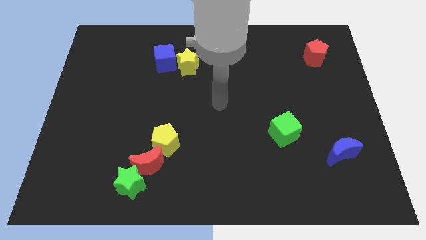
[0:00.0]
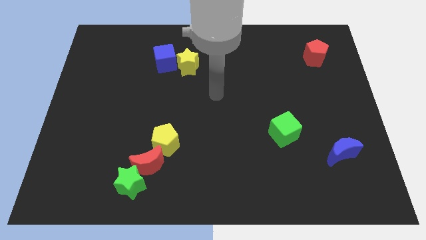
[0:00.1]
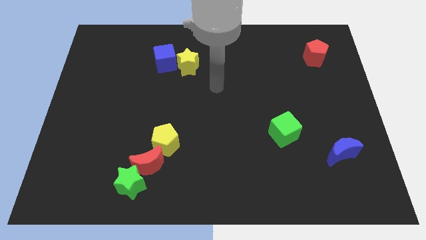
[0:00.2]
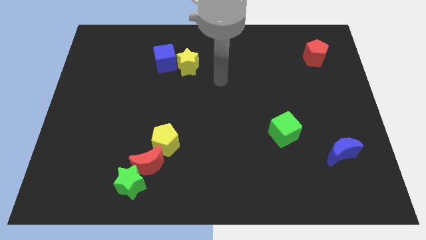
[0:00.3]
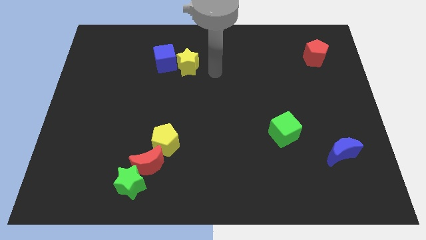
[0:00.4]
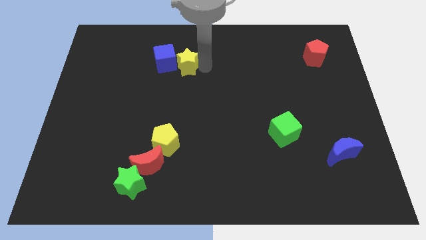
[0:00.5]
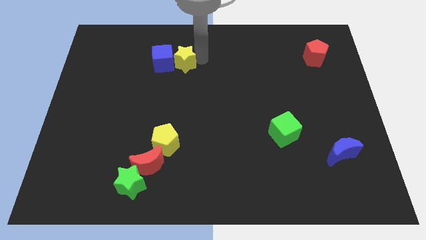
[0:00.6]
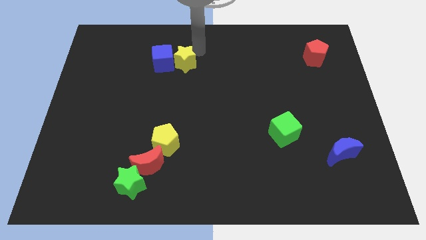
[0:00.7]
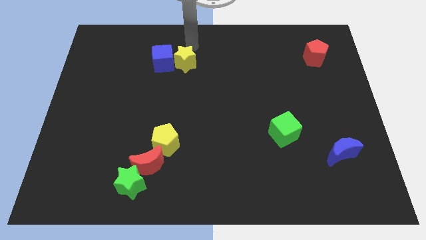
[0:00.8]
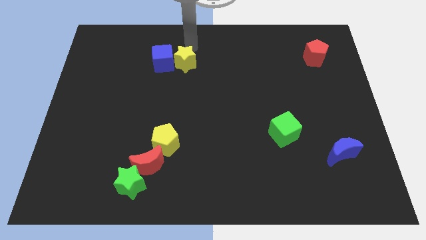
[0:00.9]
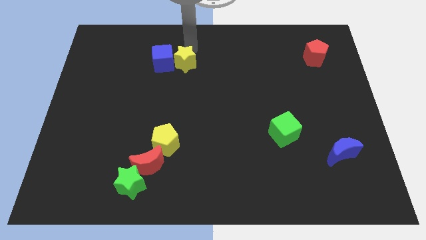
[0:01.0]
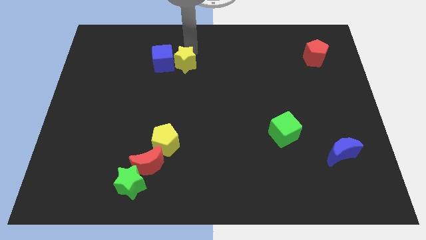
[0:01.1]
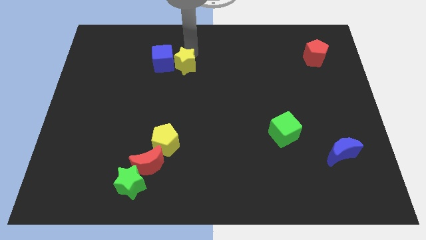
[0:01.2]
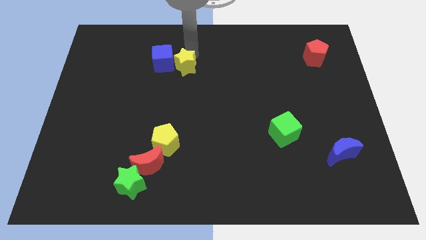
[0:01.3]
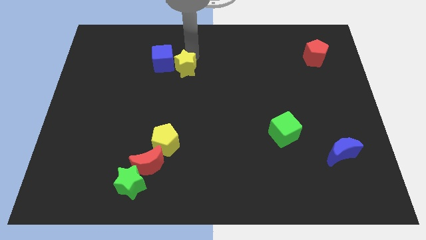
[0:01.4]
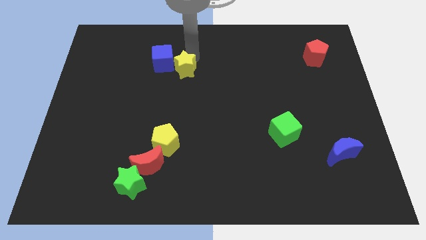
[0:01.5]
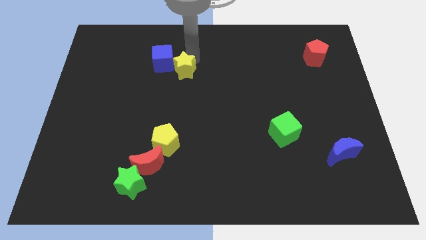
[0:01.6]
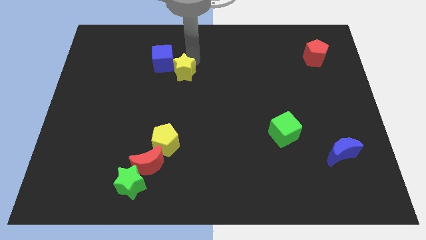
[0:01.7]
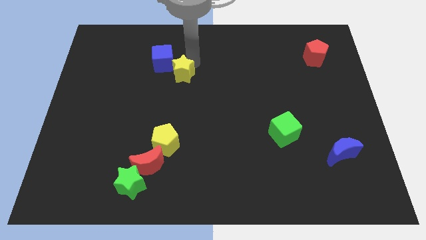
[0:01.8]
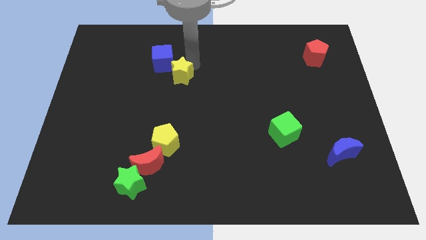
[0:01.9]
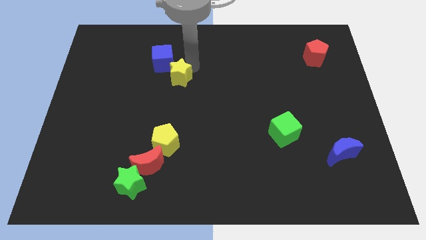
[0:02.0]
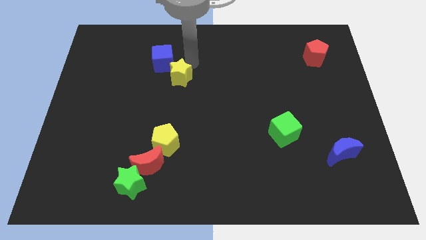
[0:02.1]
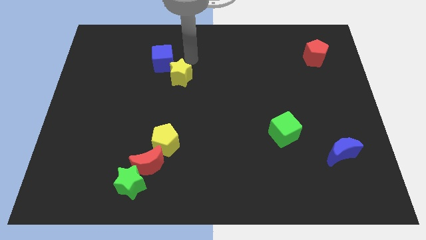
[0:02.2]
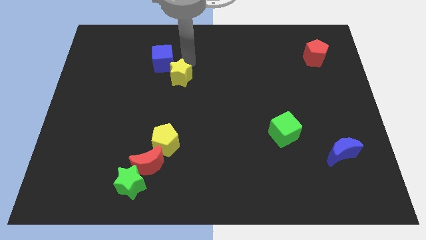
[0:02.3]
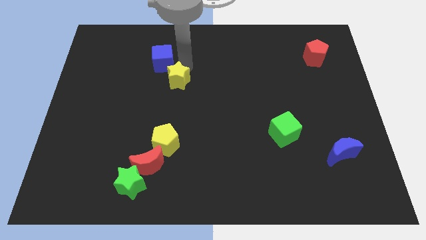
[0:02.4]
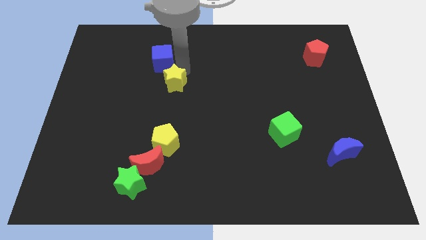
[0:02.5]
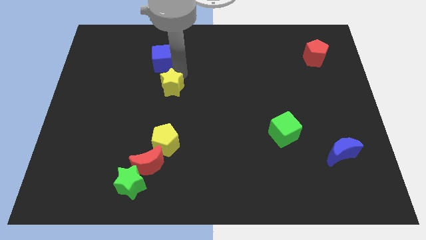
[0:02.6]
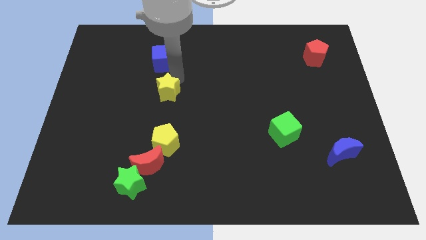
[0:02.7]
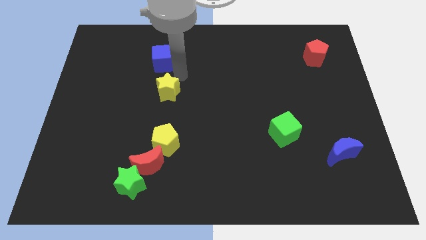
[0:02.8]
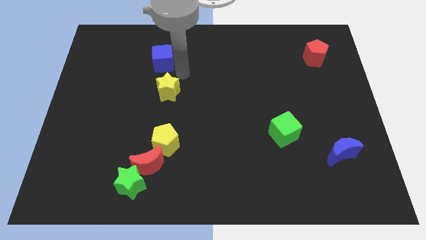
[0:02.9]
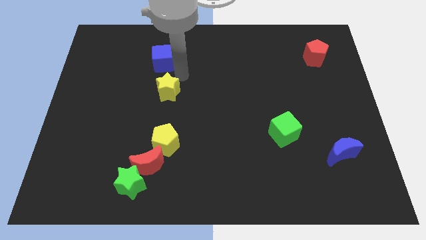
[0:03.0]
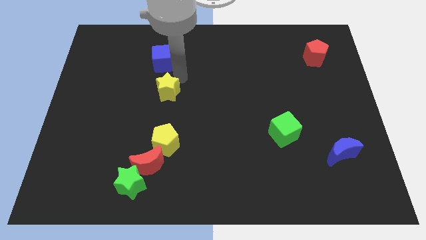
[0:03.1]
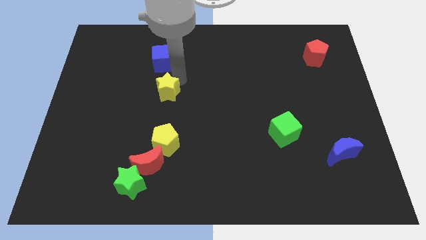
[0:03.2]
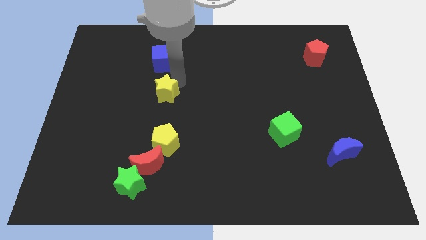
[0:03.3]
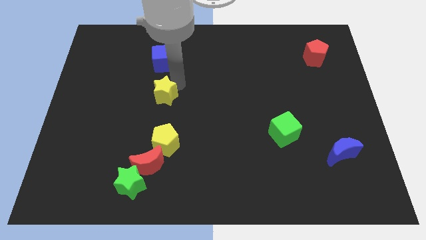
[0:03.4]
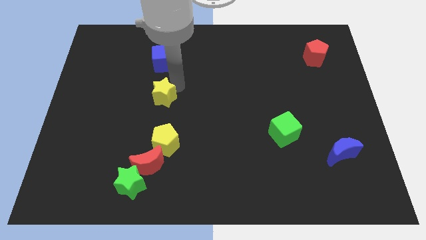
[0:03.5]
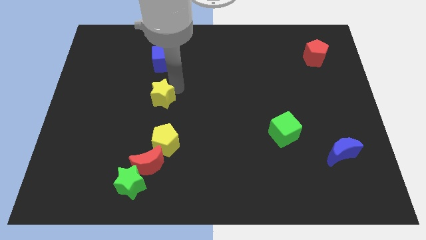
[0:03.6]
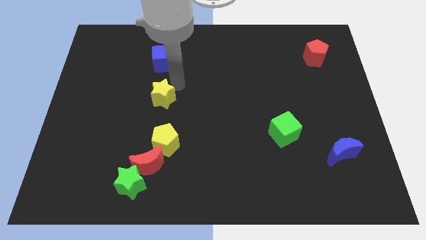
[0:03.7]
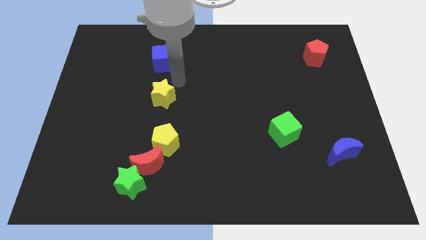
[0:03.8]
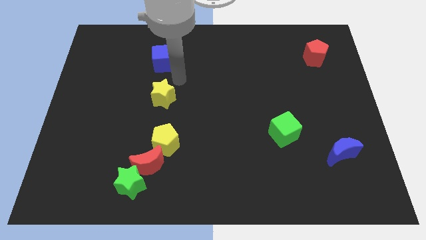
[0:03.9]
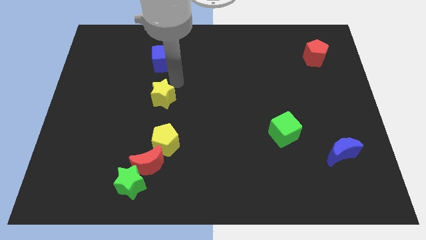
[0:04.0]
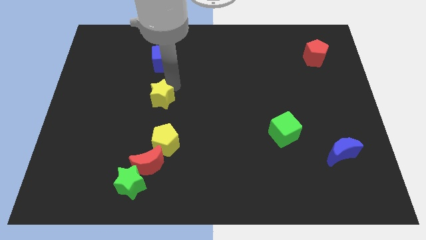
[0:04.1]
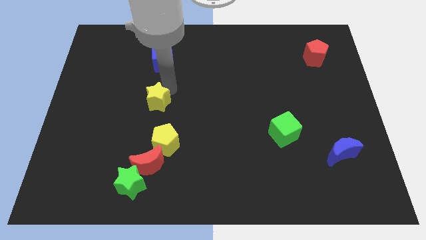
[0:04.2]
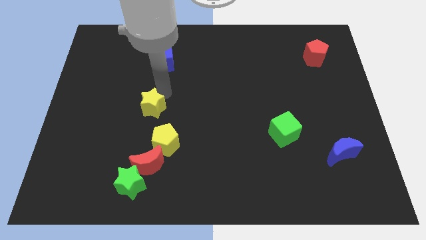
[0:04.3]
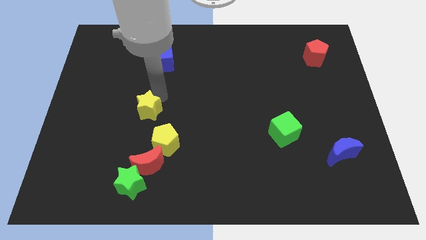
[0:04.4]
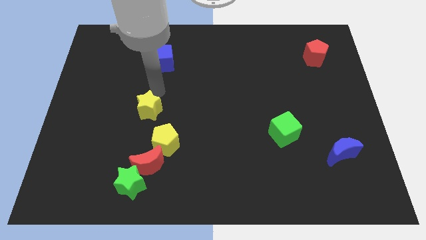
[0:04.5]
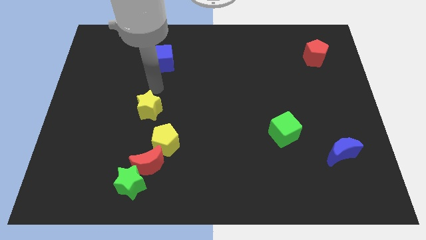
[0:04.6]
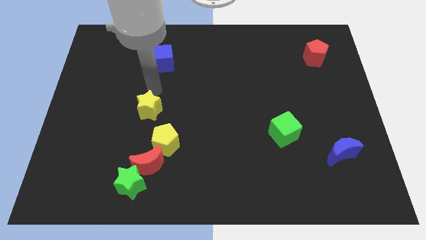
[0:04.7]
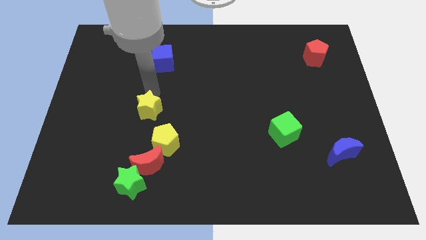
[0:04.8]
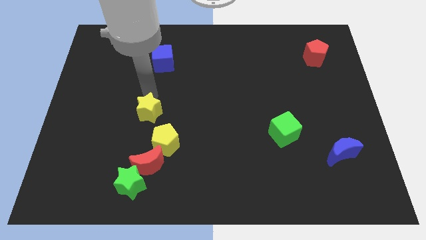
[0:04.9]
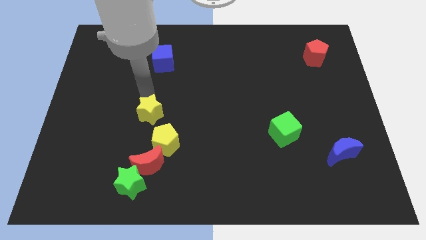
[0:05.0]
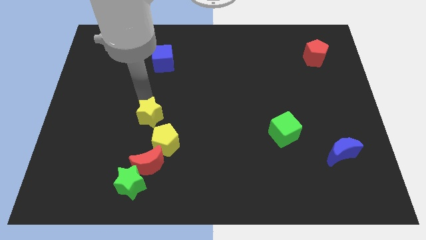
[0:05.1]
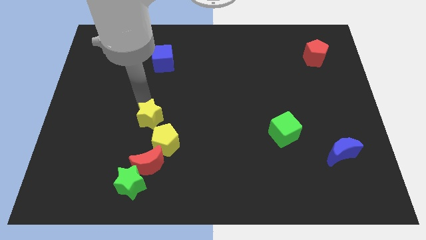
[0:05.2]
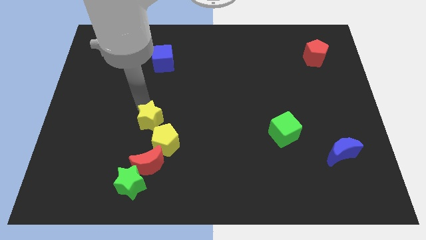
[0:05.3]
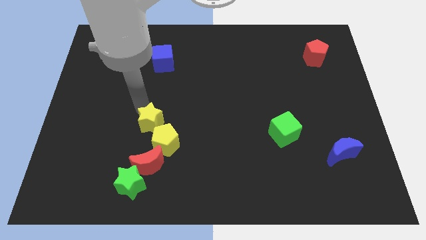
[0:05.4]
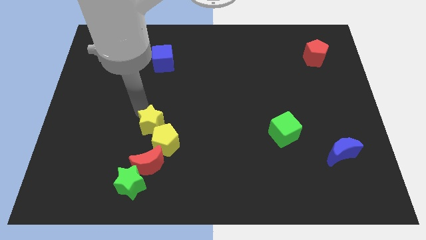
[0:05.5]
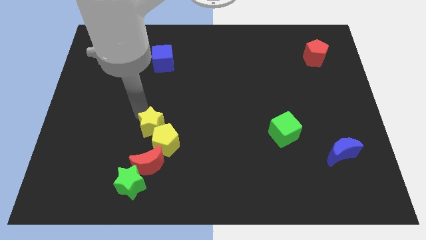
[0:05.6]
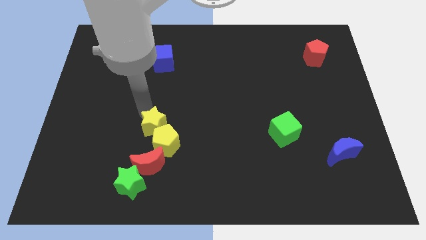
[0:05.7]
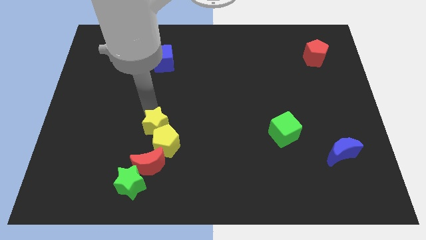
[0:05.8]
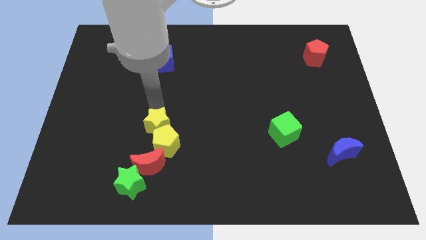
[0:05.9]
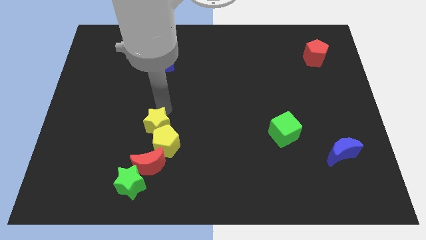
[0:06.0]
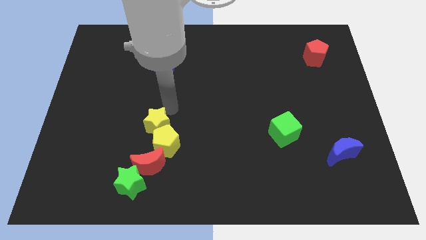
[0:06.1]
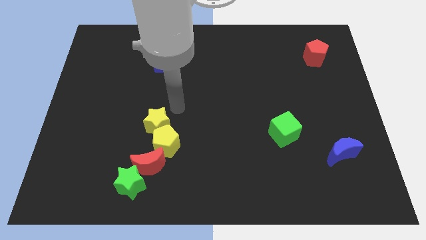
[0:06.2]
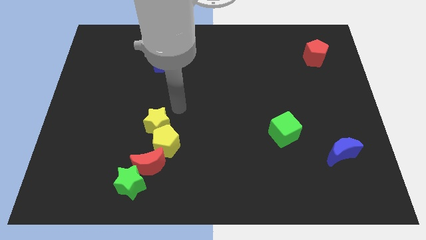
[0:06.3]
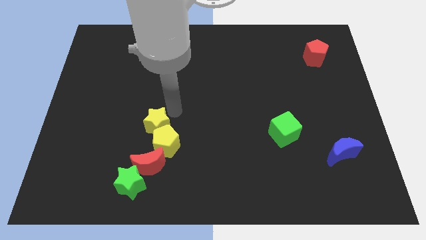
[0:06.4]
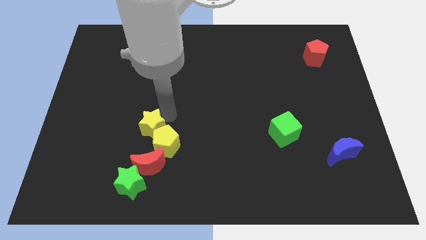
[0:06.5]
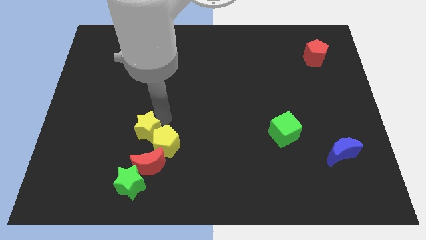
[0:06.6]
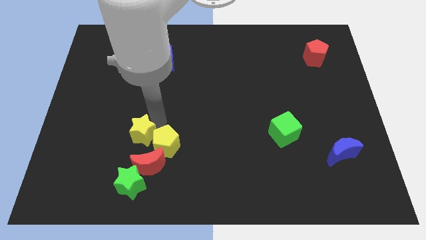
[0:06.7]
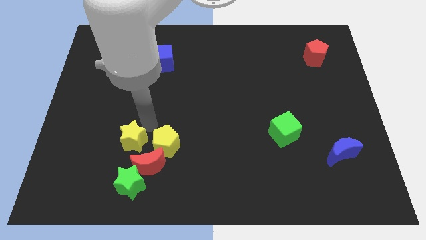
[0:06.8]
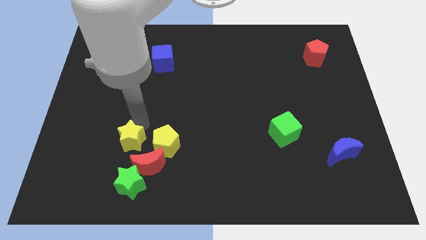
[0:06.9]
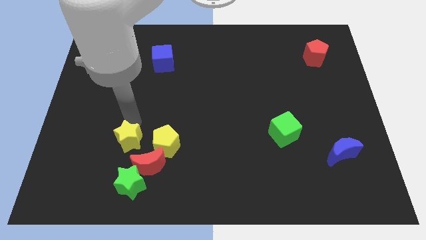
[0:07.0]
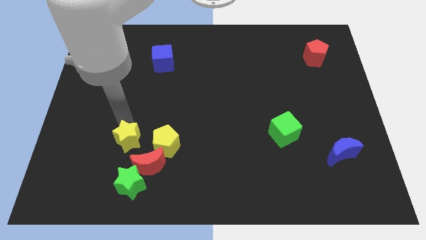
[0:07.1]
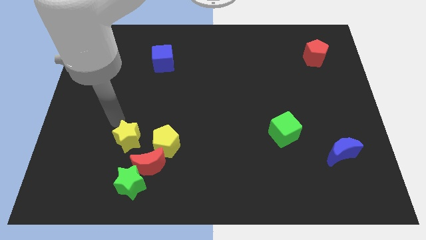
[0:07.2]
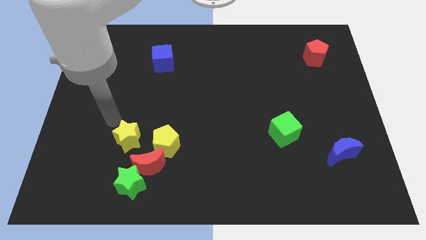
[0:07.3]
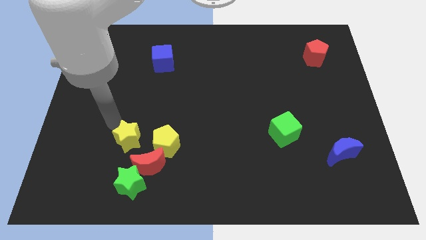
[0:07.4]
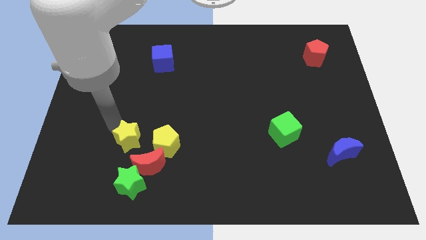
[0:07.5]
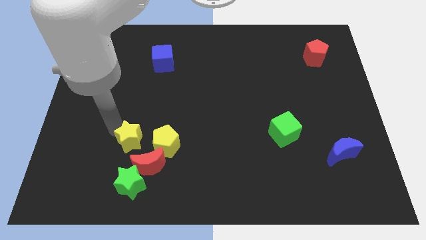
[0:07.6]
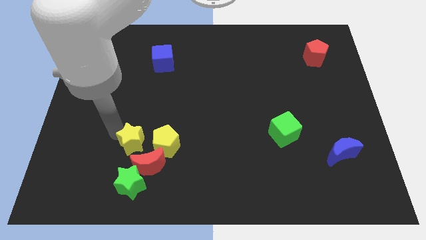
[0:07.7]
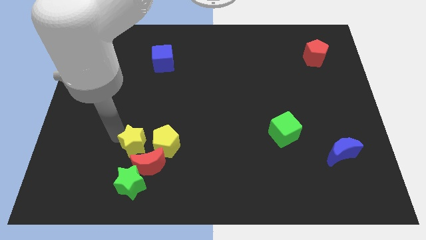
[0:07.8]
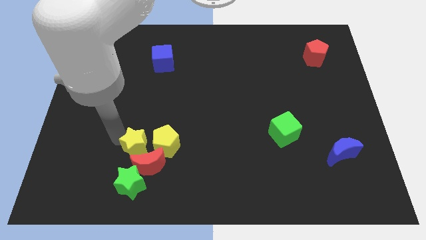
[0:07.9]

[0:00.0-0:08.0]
slide the yellow star close to the red moon
